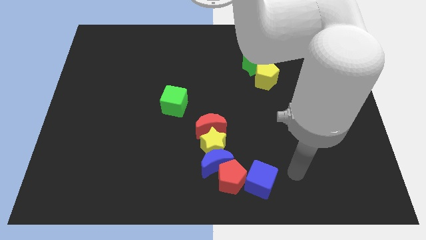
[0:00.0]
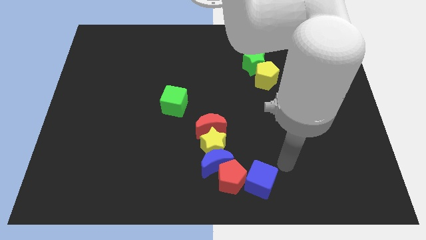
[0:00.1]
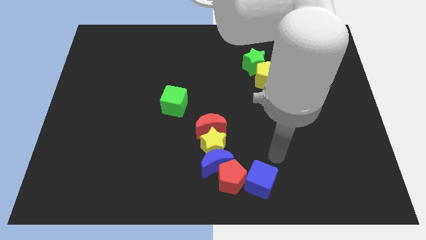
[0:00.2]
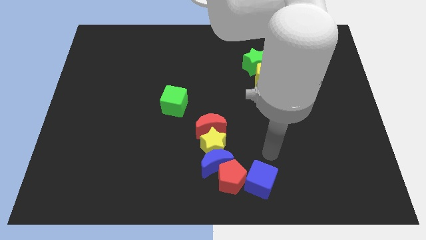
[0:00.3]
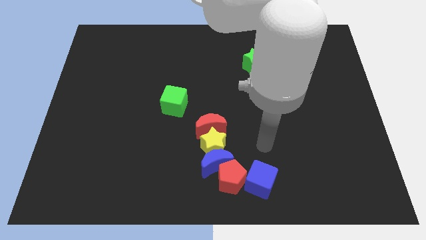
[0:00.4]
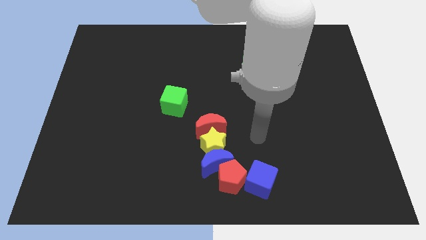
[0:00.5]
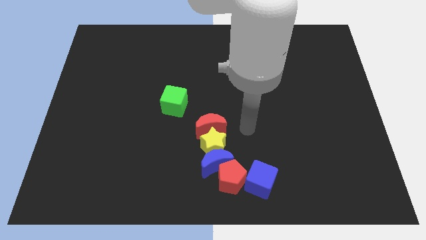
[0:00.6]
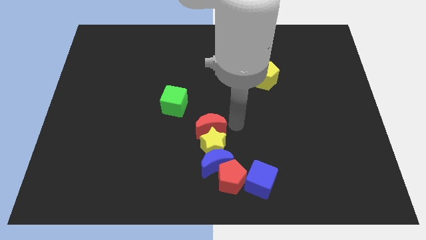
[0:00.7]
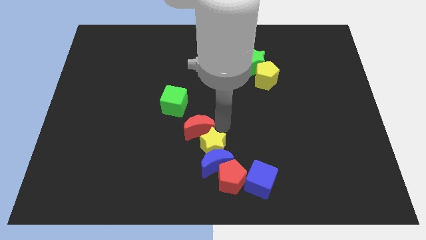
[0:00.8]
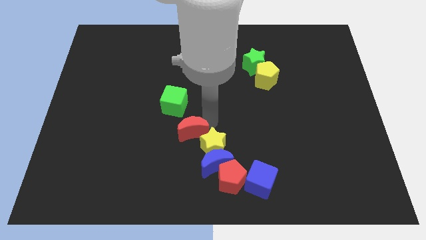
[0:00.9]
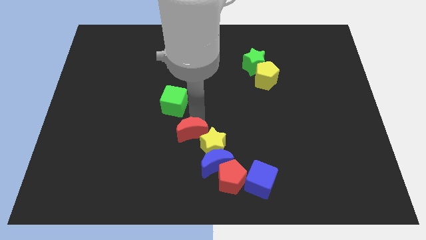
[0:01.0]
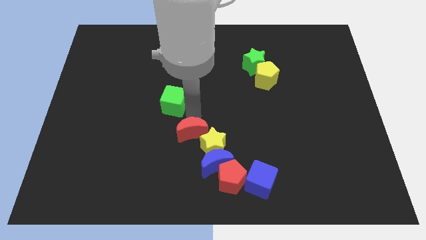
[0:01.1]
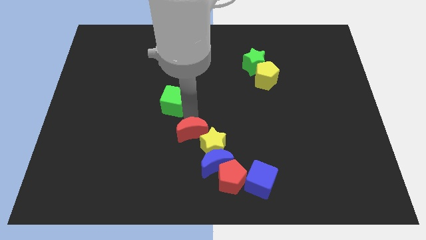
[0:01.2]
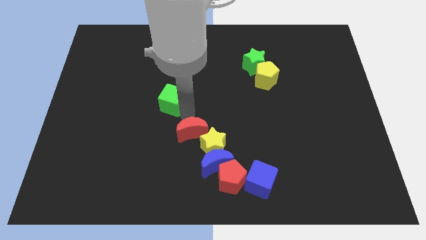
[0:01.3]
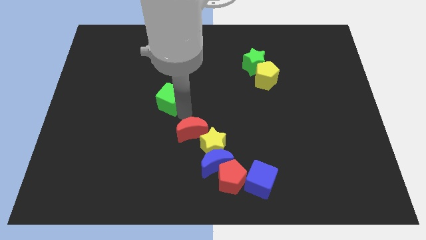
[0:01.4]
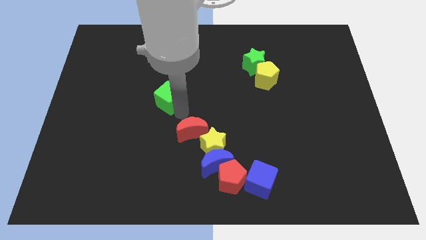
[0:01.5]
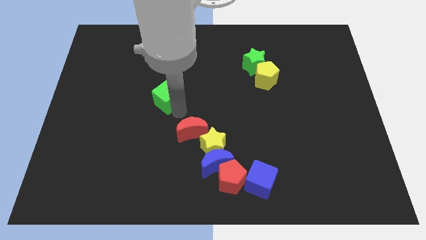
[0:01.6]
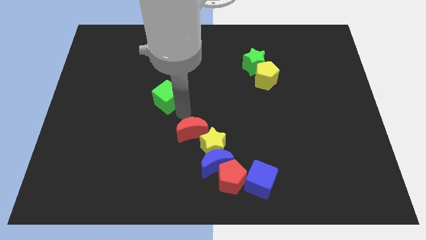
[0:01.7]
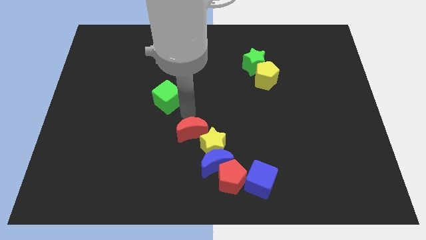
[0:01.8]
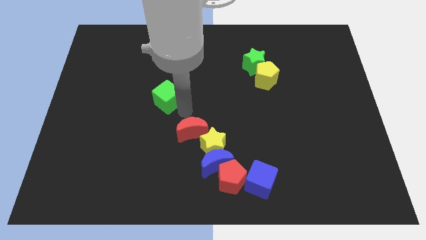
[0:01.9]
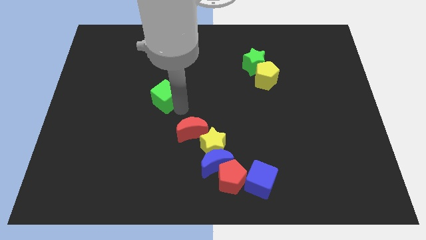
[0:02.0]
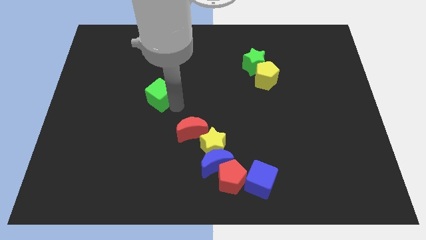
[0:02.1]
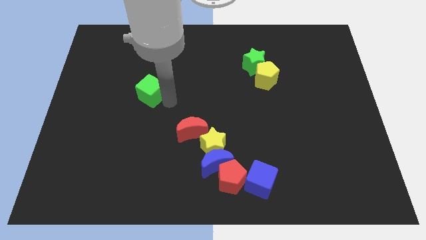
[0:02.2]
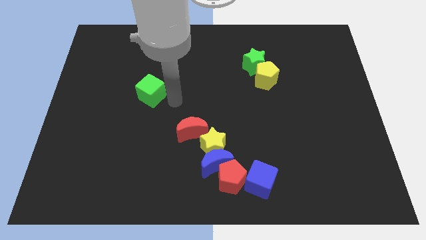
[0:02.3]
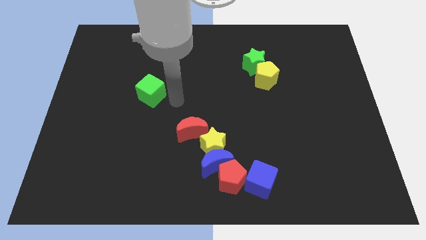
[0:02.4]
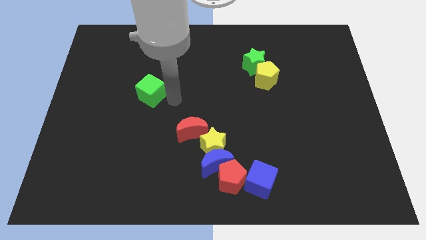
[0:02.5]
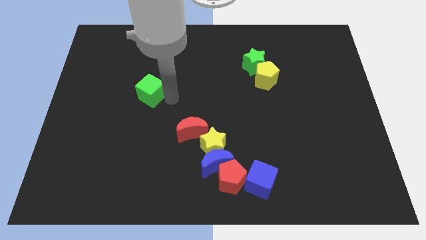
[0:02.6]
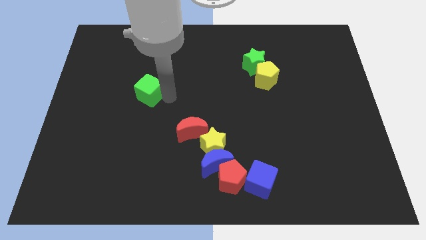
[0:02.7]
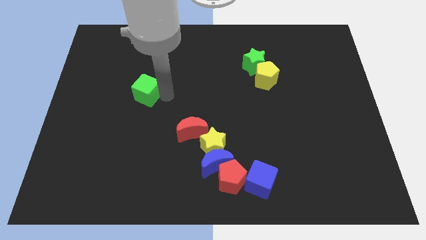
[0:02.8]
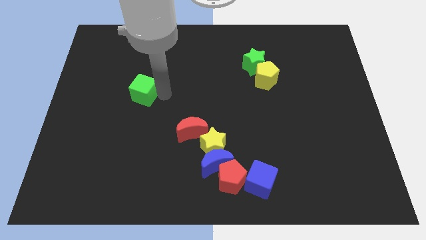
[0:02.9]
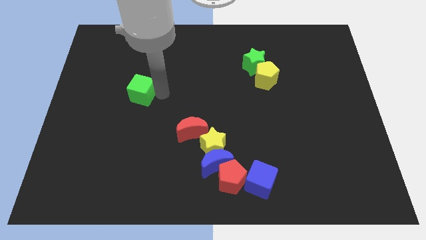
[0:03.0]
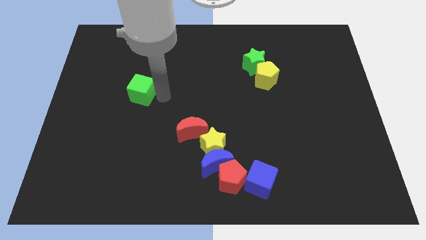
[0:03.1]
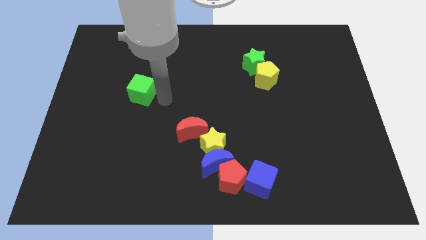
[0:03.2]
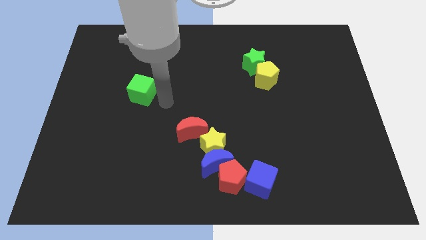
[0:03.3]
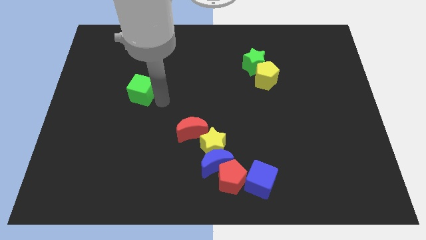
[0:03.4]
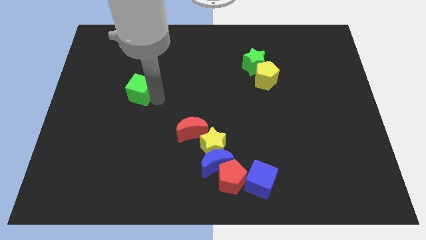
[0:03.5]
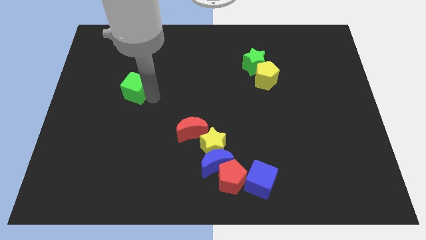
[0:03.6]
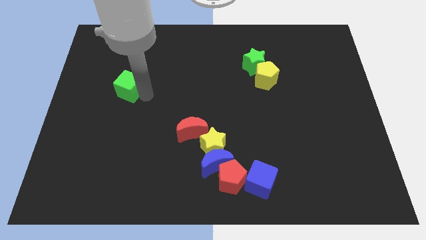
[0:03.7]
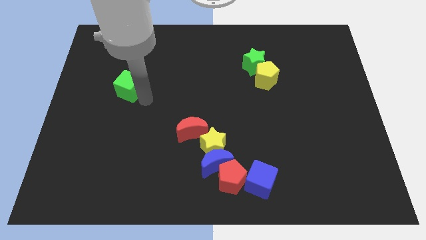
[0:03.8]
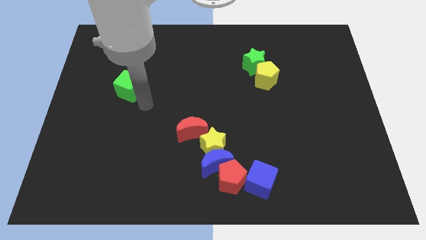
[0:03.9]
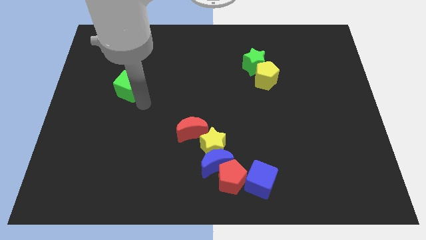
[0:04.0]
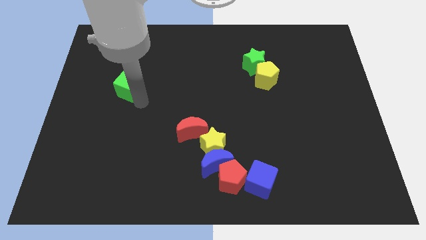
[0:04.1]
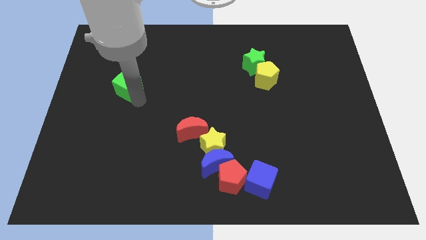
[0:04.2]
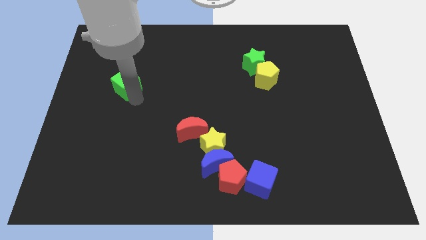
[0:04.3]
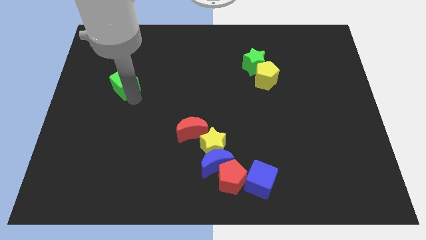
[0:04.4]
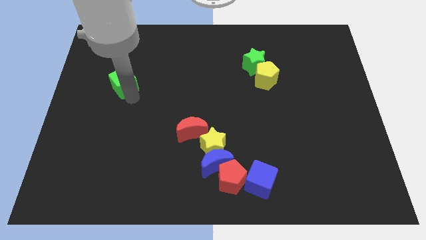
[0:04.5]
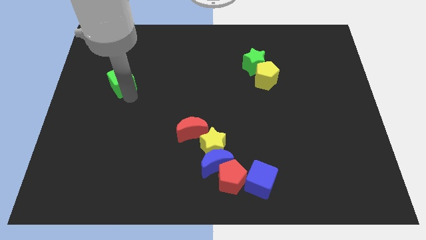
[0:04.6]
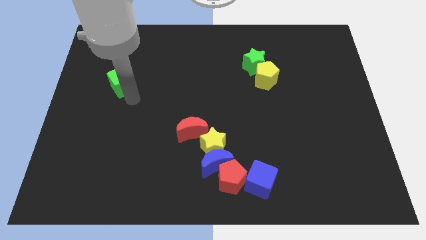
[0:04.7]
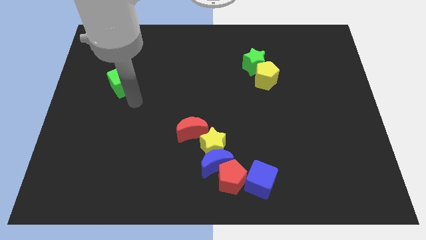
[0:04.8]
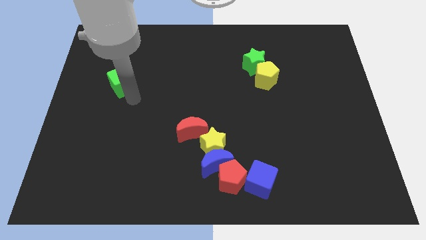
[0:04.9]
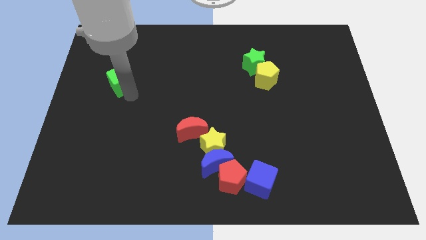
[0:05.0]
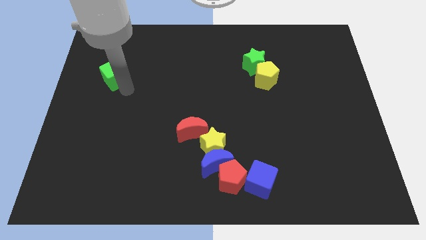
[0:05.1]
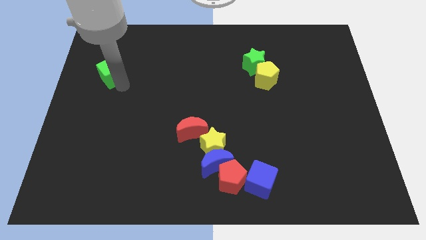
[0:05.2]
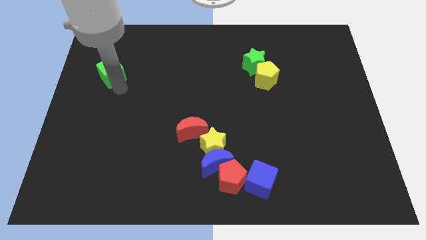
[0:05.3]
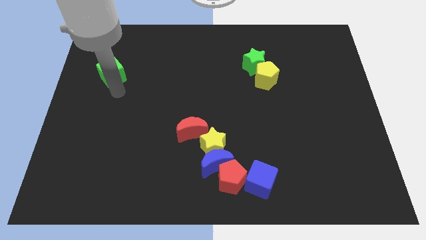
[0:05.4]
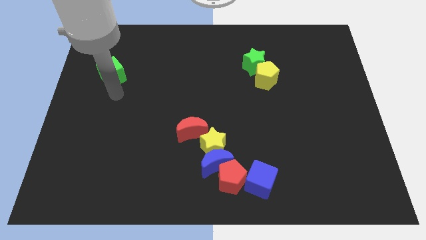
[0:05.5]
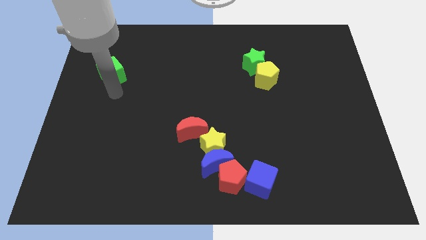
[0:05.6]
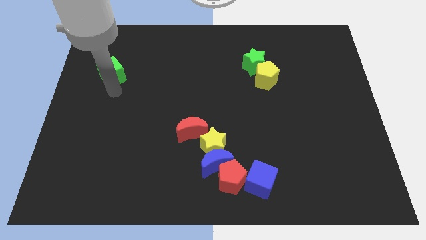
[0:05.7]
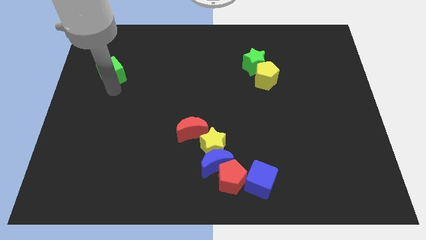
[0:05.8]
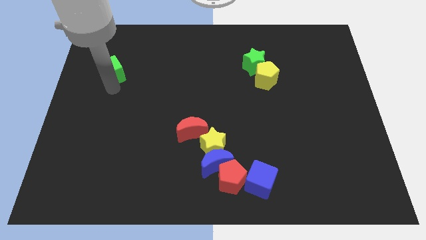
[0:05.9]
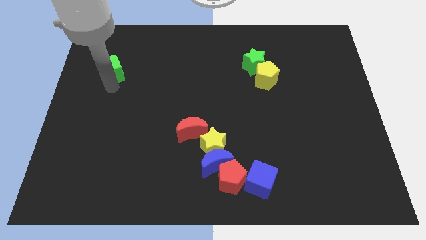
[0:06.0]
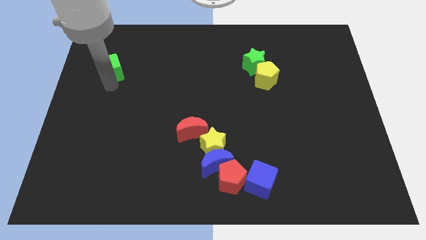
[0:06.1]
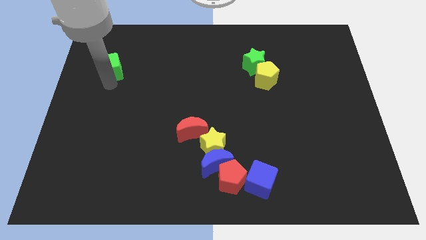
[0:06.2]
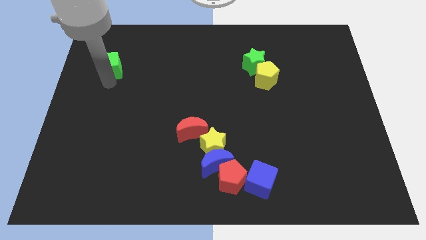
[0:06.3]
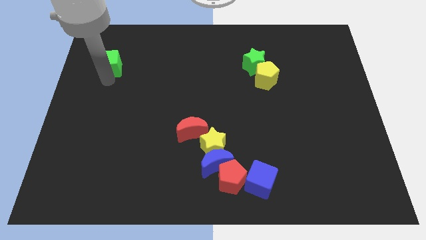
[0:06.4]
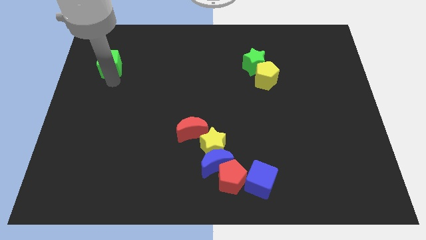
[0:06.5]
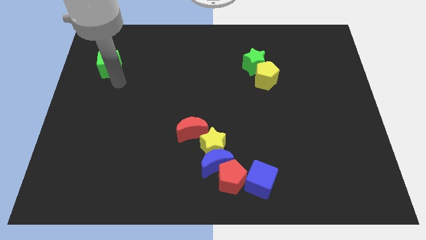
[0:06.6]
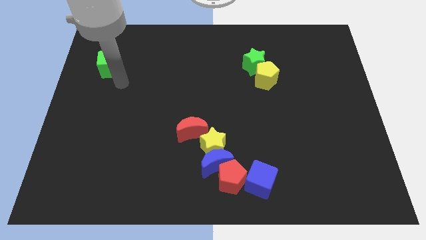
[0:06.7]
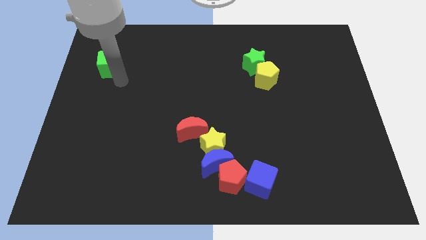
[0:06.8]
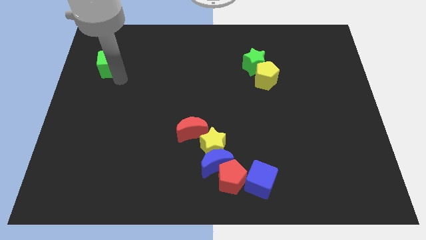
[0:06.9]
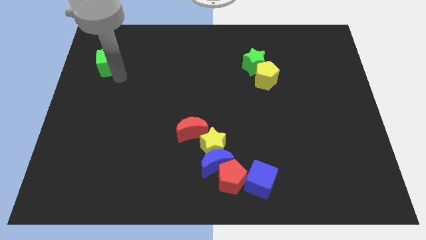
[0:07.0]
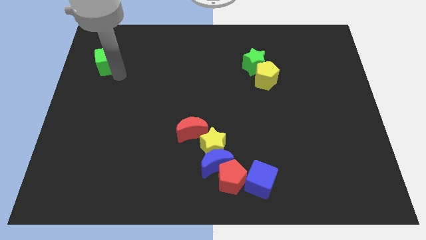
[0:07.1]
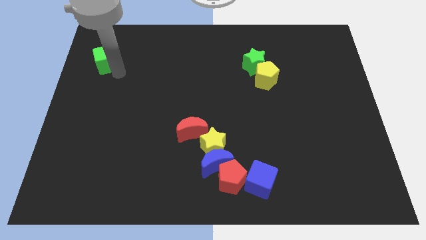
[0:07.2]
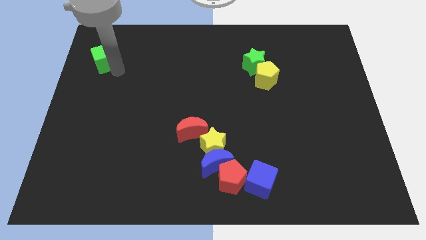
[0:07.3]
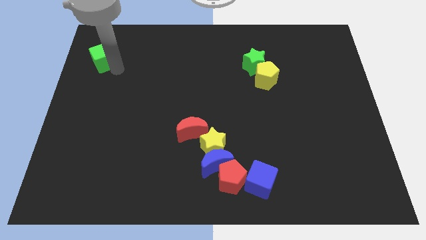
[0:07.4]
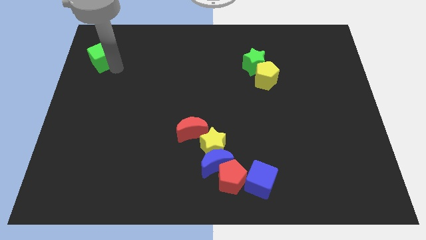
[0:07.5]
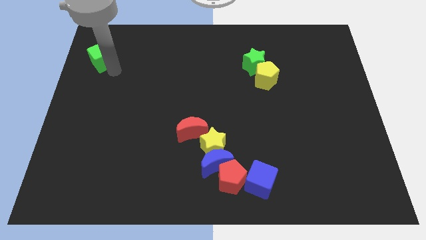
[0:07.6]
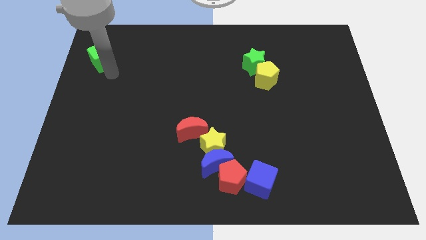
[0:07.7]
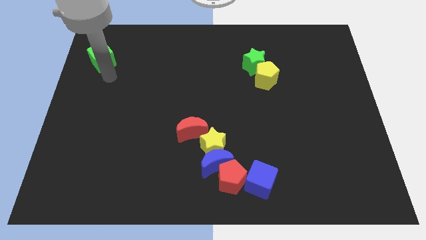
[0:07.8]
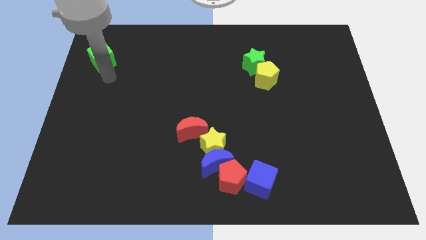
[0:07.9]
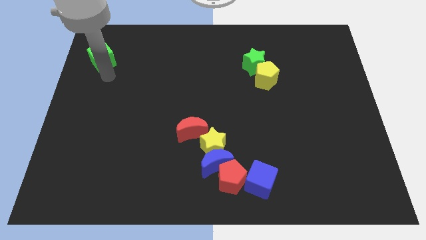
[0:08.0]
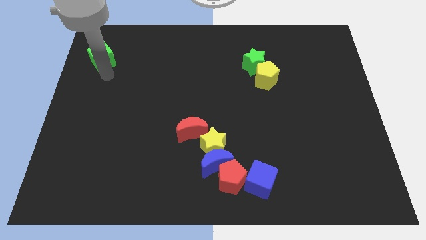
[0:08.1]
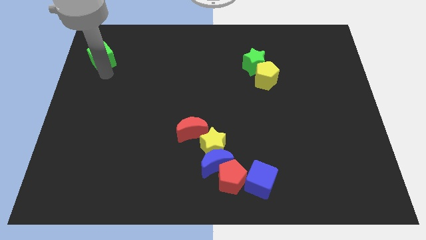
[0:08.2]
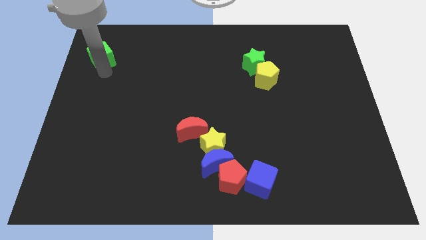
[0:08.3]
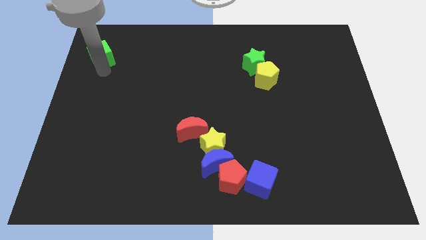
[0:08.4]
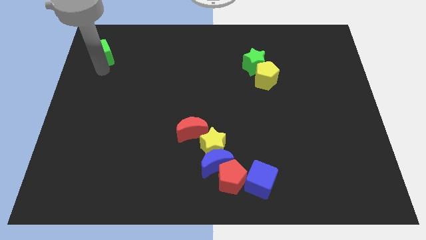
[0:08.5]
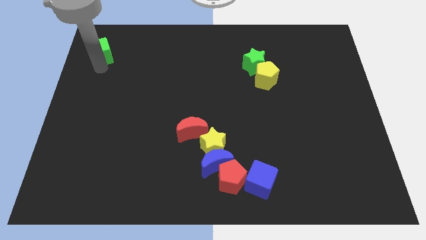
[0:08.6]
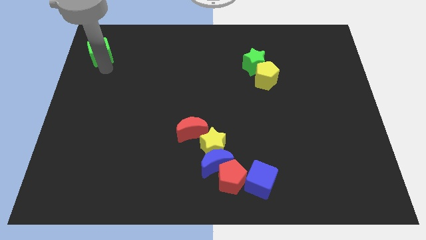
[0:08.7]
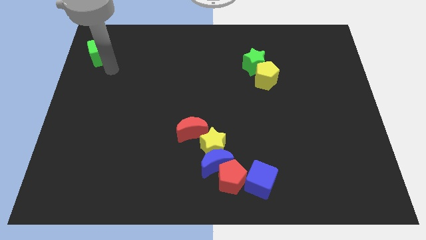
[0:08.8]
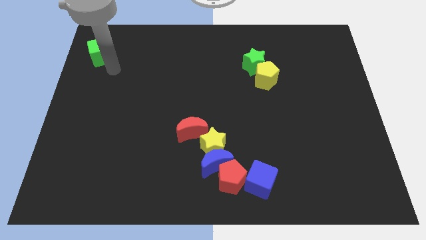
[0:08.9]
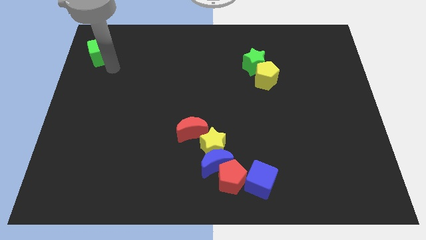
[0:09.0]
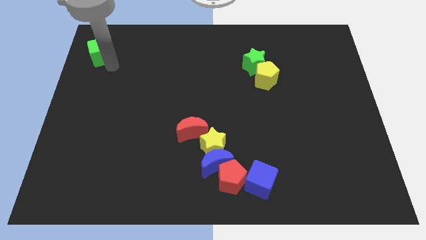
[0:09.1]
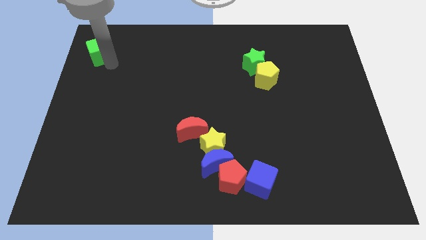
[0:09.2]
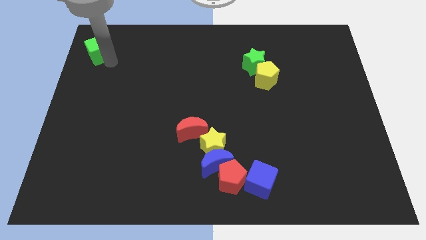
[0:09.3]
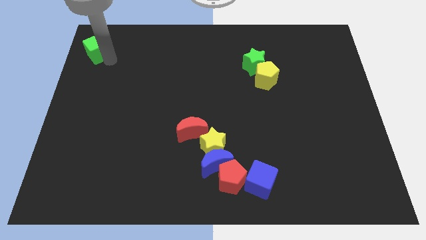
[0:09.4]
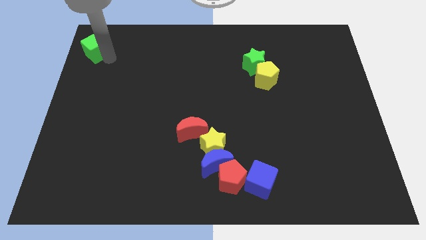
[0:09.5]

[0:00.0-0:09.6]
push the green cube to the top left of the board
